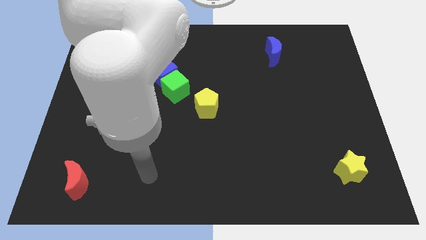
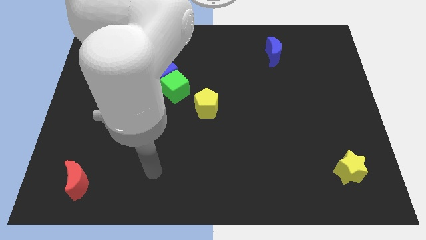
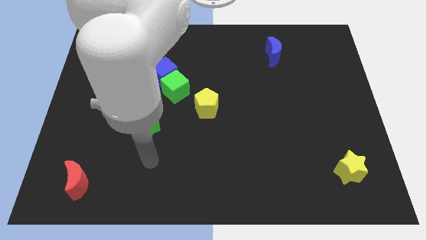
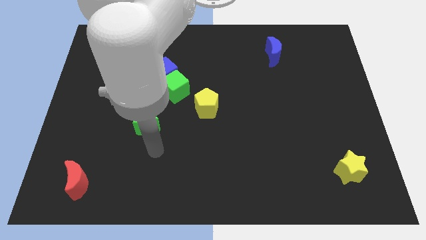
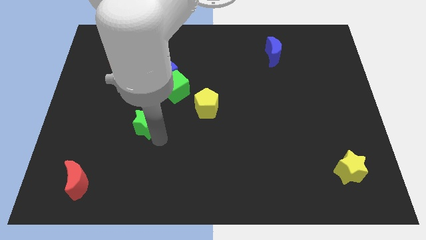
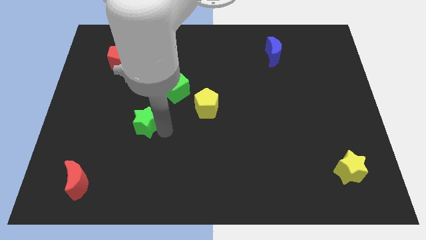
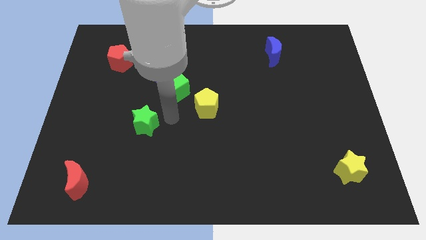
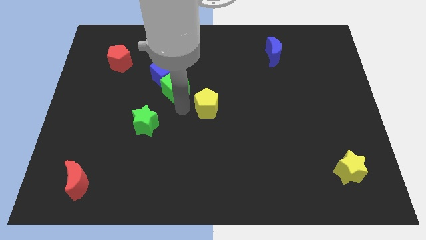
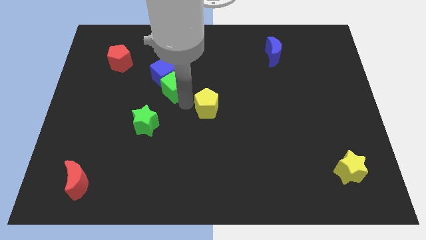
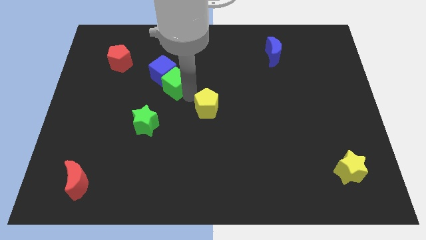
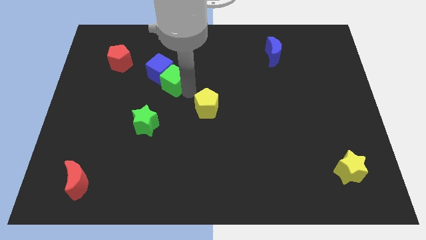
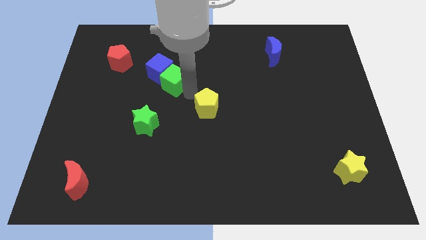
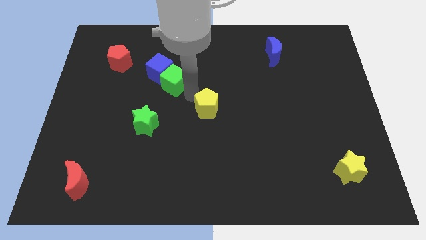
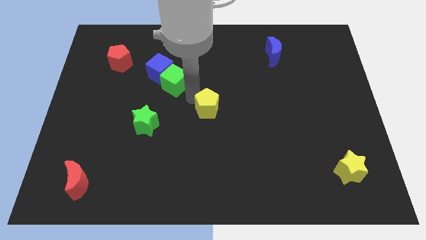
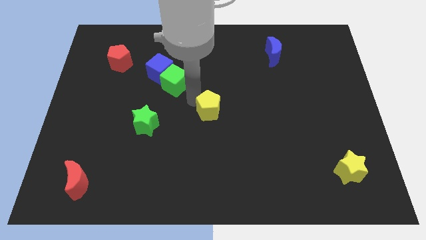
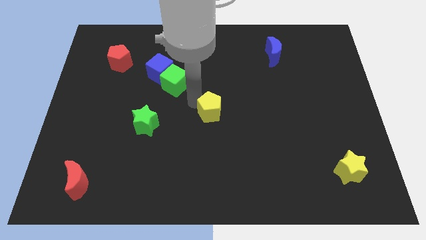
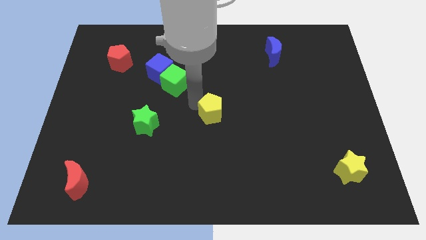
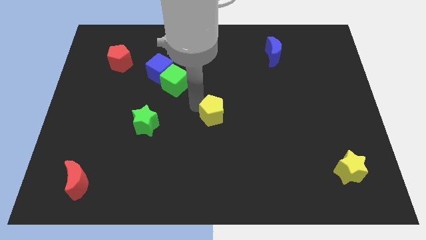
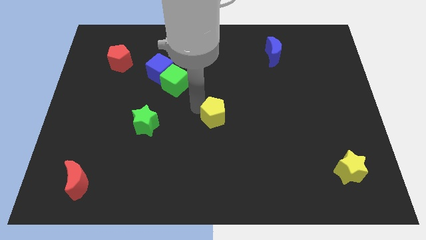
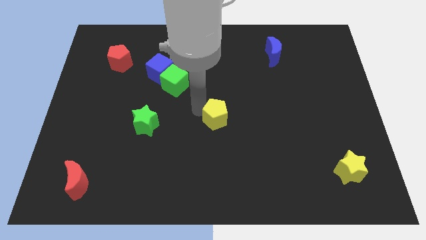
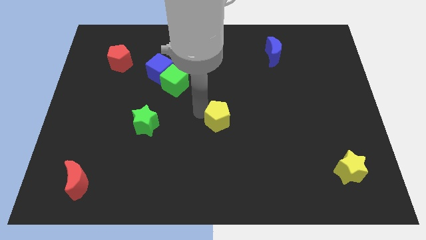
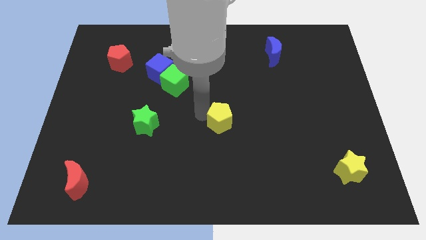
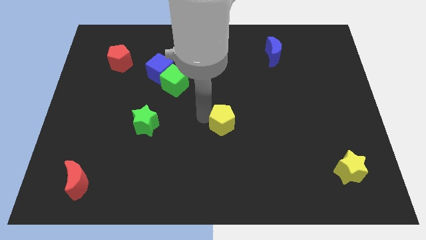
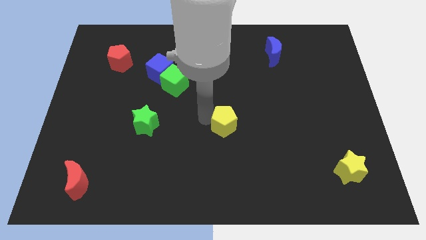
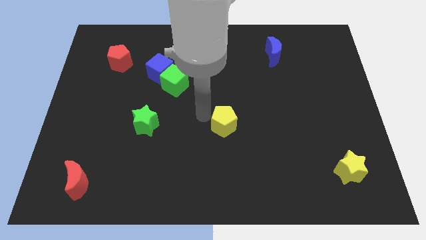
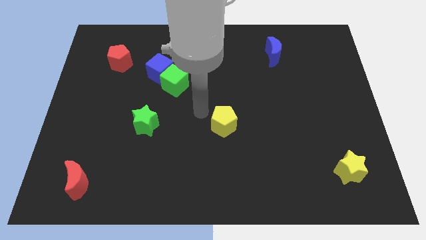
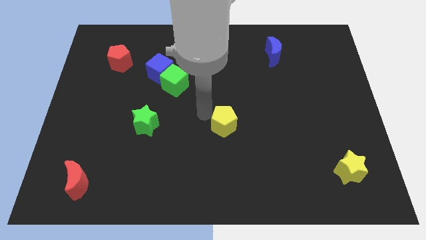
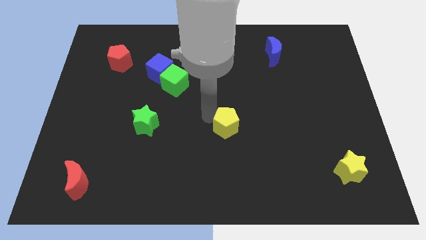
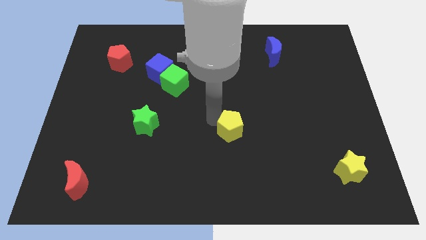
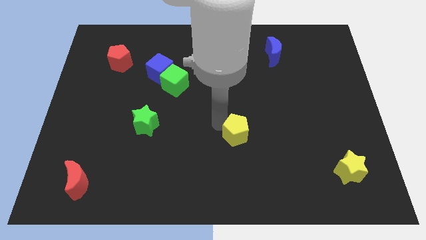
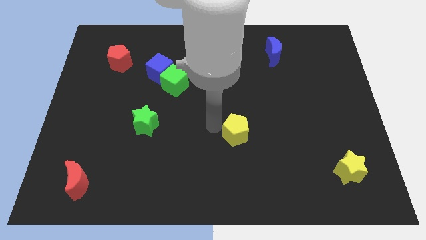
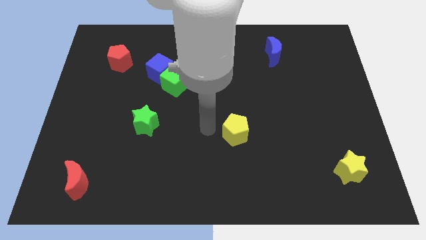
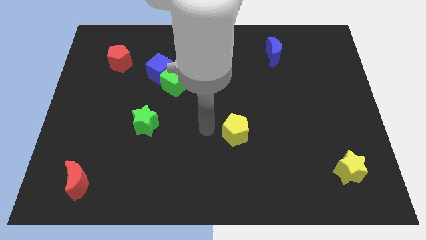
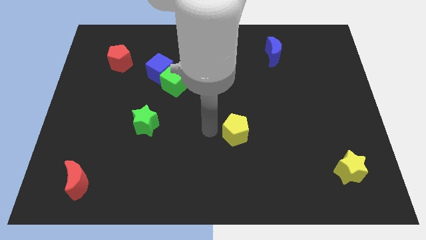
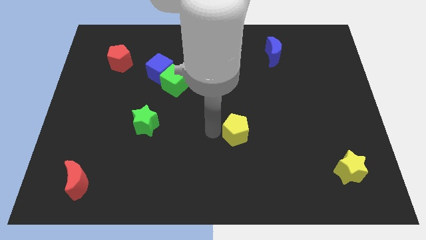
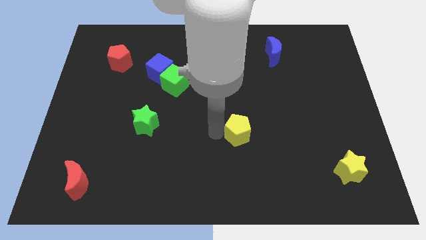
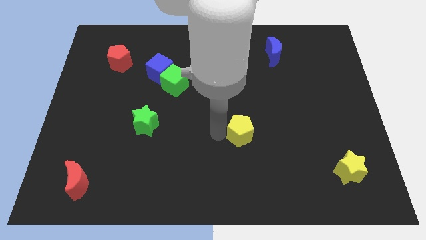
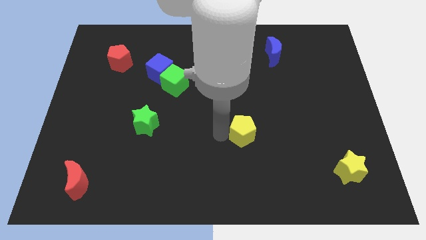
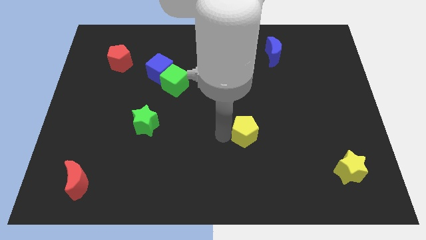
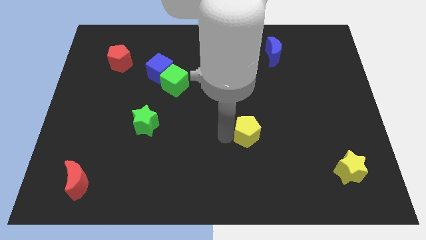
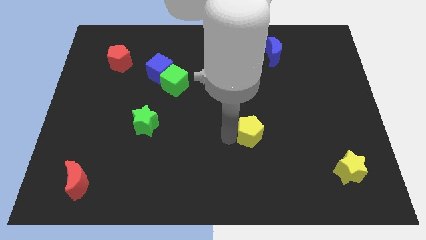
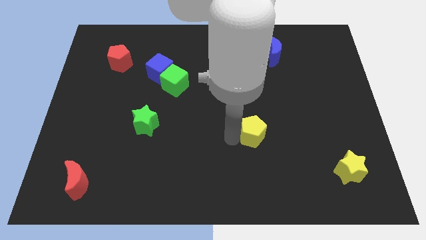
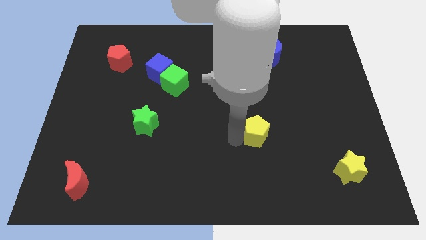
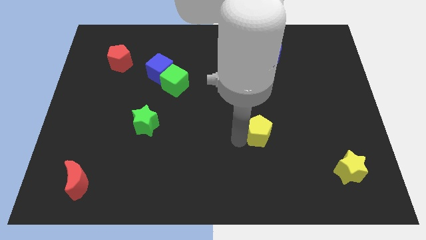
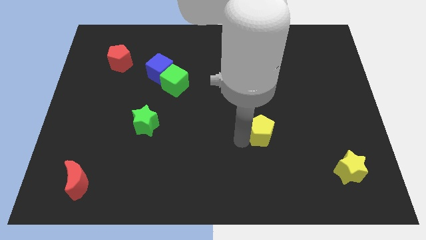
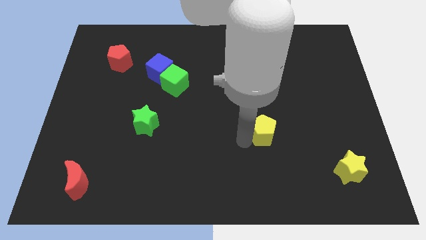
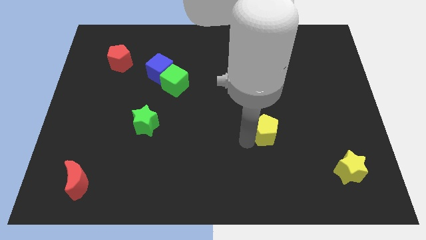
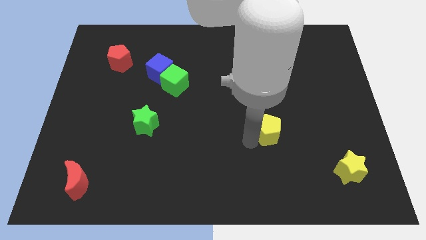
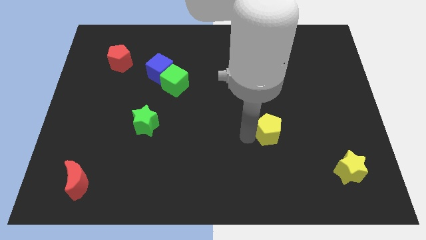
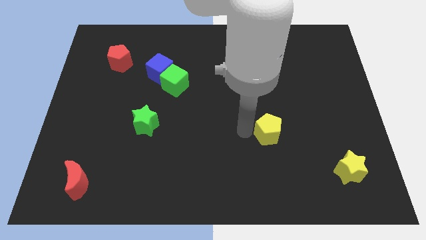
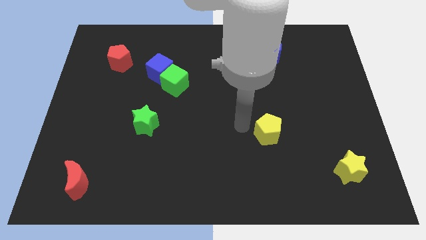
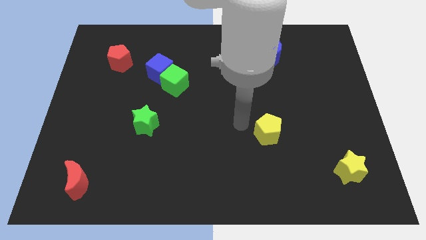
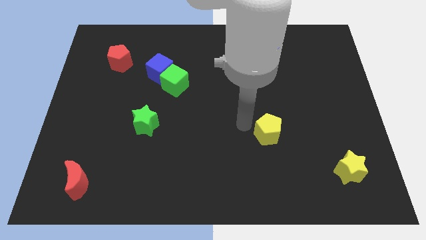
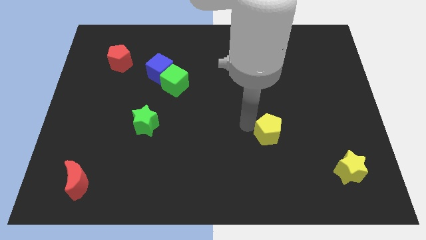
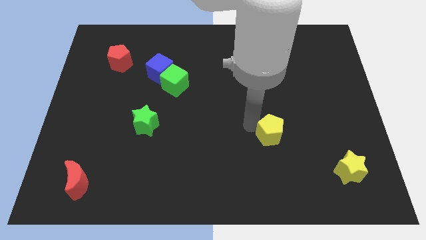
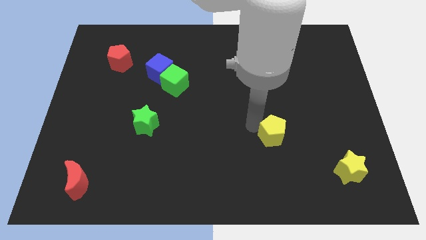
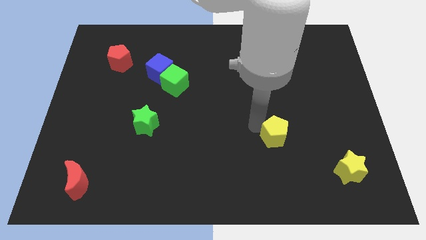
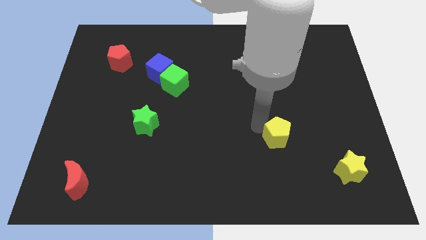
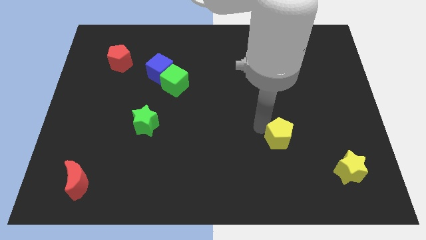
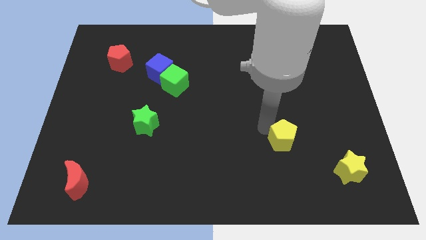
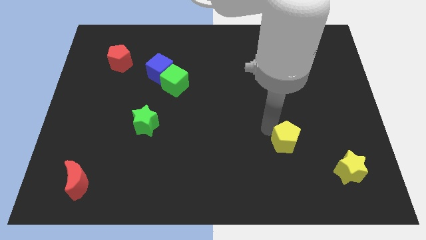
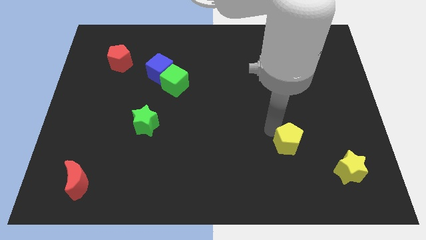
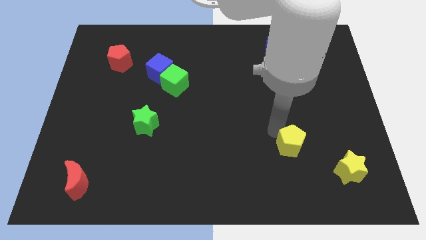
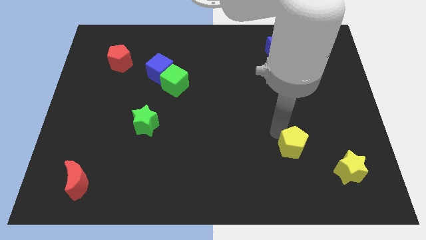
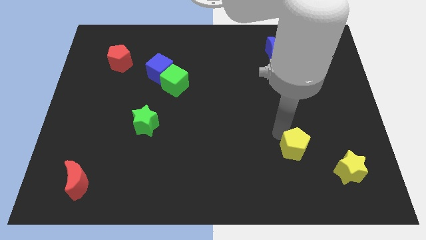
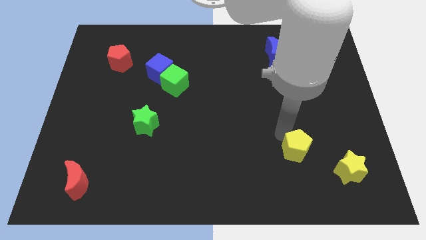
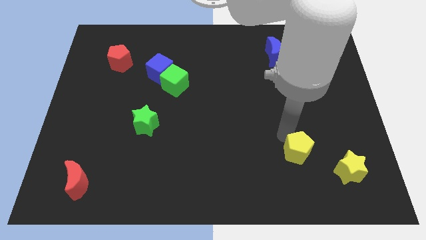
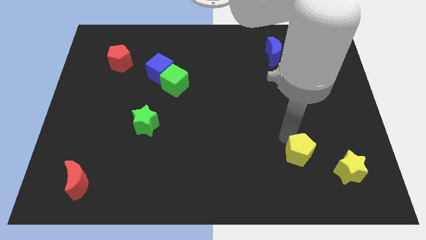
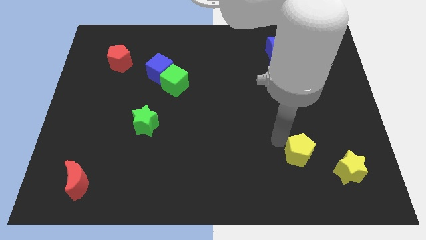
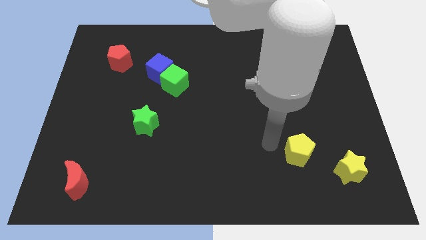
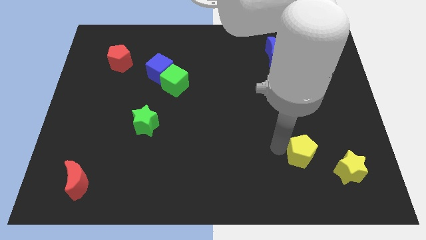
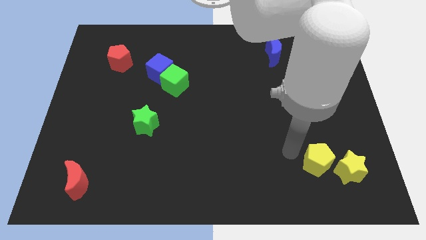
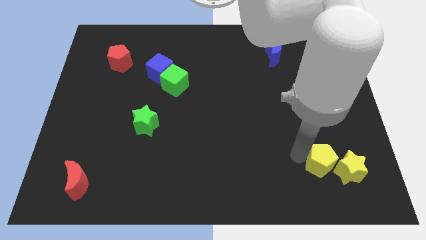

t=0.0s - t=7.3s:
move the yellow pentagon to the yellow star
